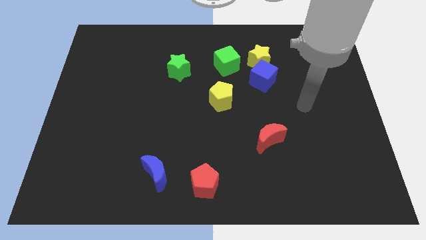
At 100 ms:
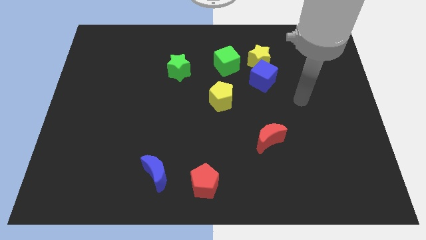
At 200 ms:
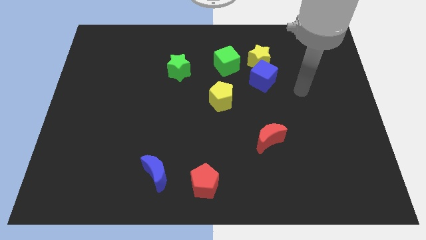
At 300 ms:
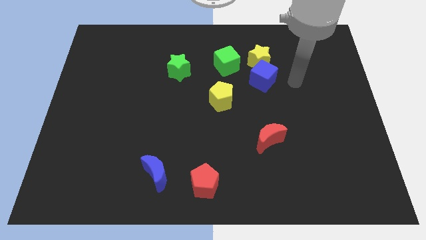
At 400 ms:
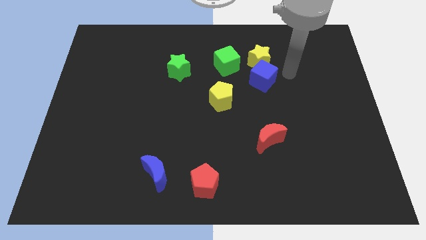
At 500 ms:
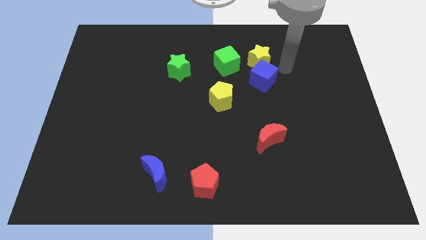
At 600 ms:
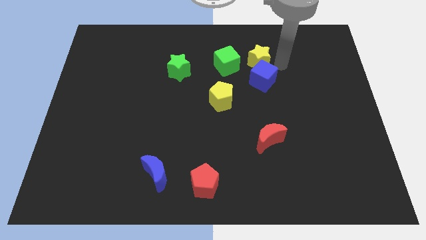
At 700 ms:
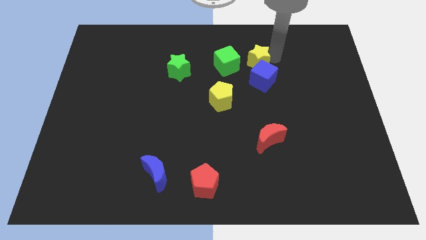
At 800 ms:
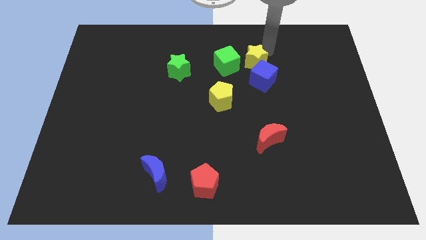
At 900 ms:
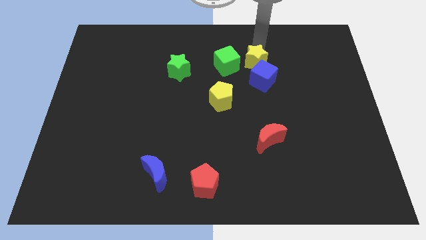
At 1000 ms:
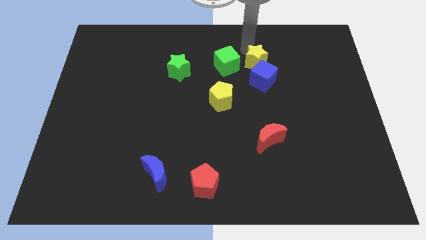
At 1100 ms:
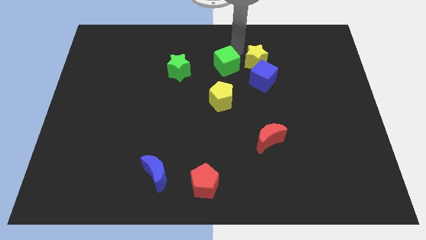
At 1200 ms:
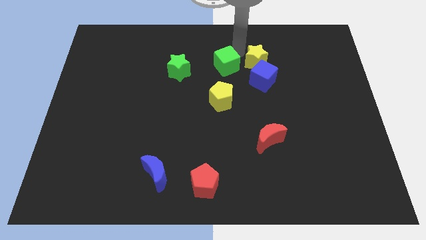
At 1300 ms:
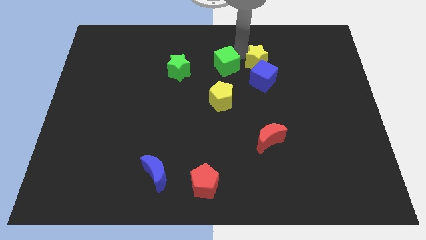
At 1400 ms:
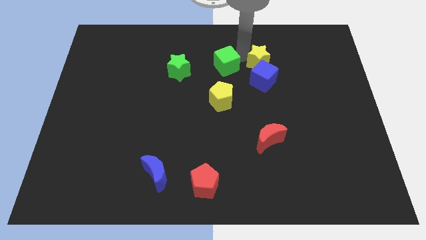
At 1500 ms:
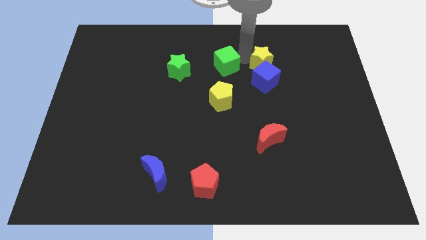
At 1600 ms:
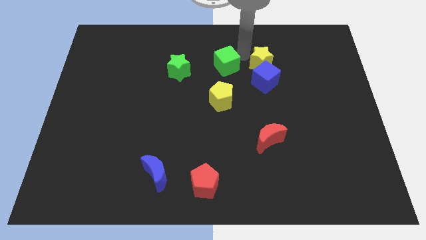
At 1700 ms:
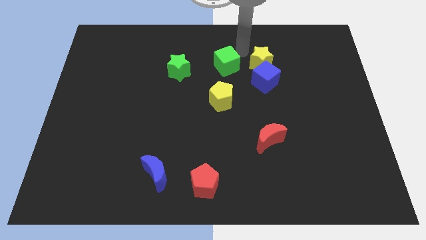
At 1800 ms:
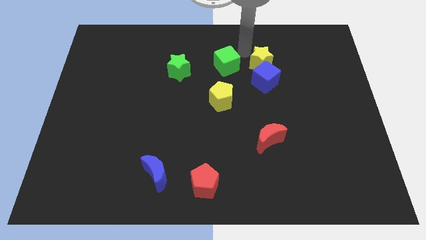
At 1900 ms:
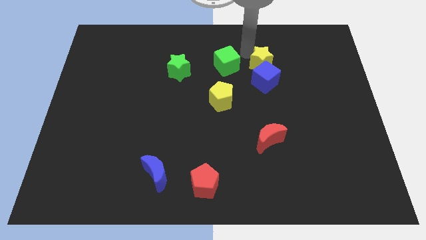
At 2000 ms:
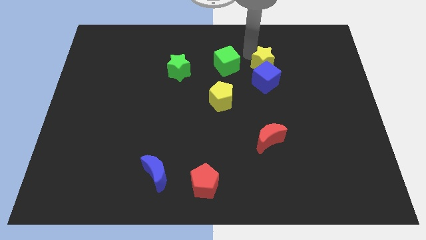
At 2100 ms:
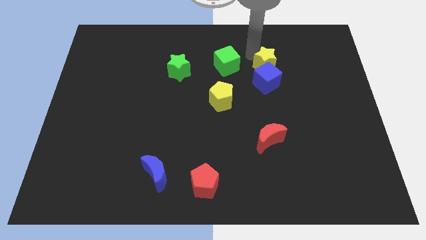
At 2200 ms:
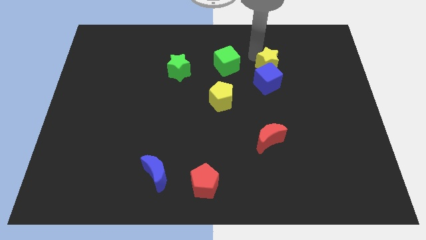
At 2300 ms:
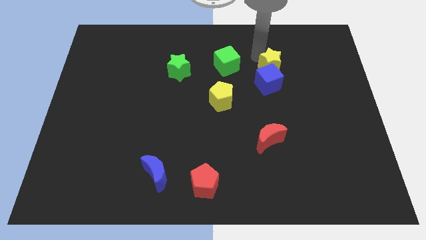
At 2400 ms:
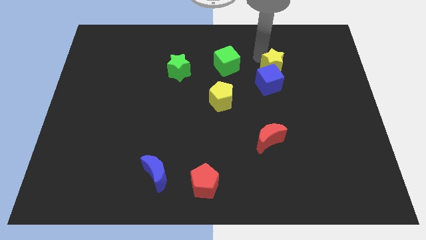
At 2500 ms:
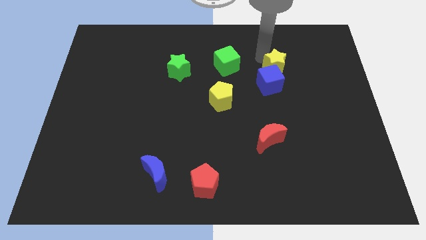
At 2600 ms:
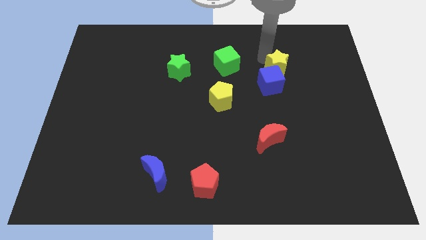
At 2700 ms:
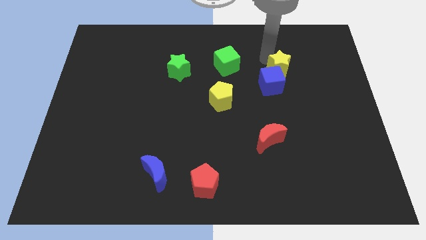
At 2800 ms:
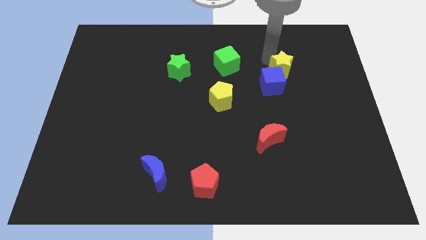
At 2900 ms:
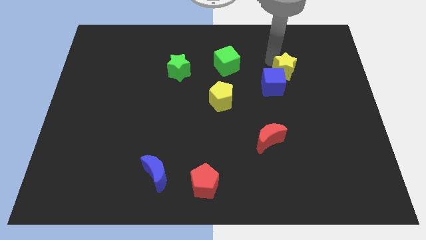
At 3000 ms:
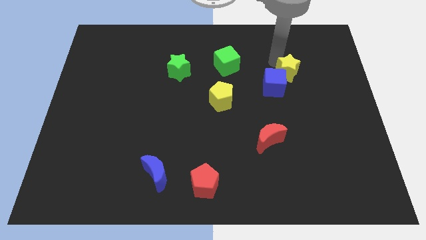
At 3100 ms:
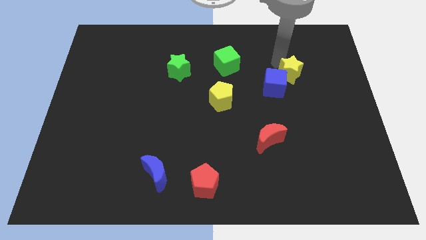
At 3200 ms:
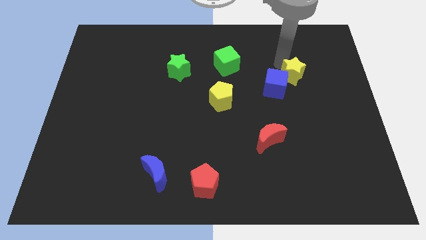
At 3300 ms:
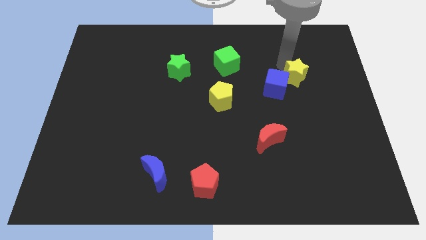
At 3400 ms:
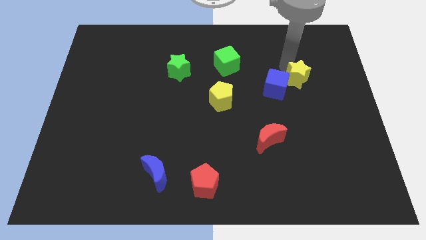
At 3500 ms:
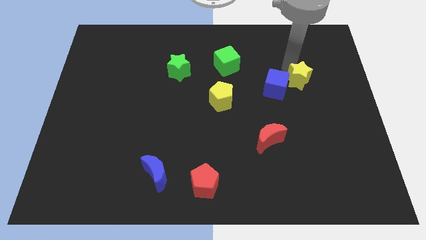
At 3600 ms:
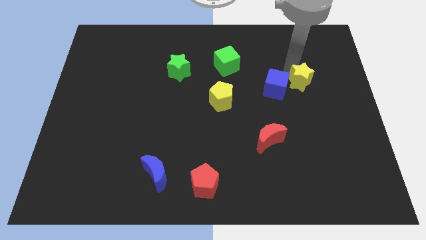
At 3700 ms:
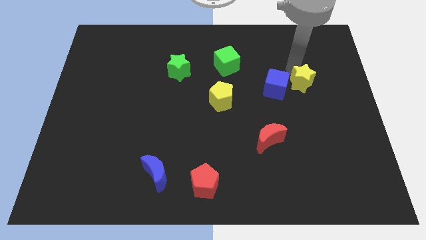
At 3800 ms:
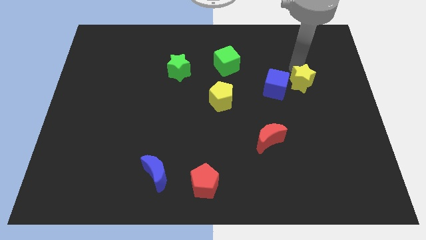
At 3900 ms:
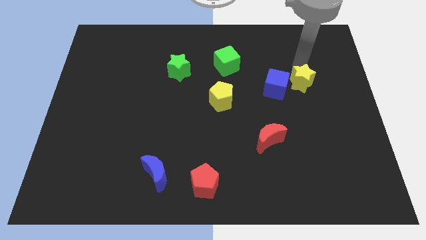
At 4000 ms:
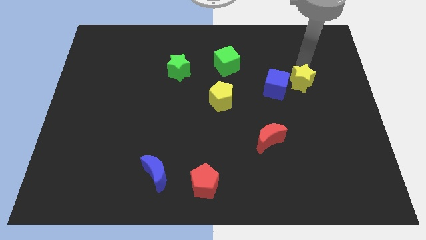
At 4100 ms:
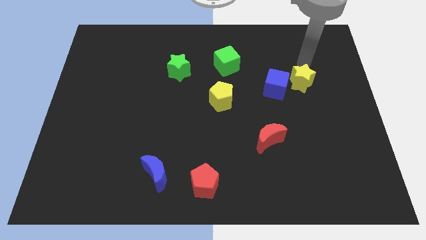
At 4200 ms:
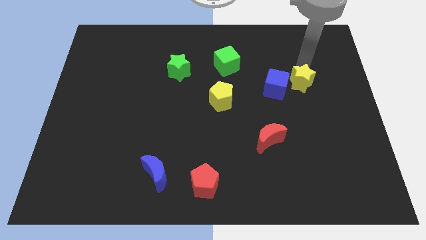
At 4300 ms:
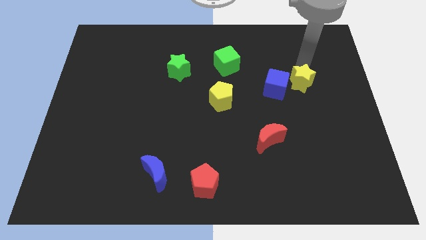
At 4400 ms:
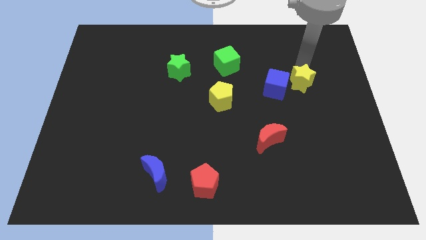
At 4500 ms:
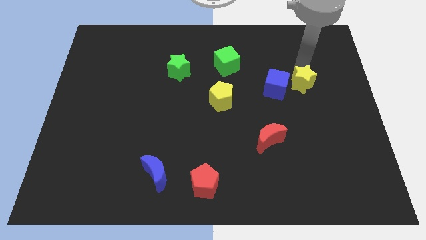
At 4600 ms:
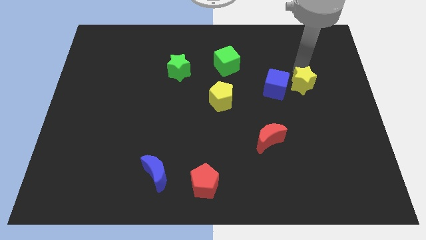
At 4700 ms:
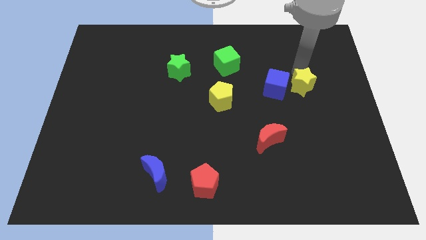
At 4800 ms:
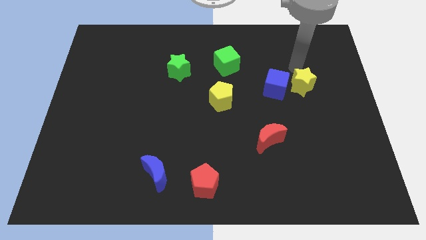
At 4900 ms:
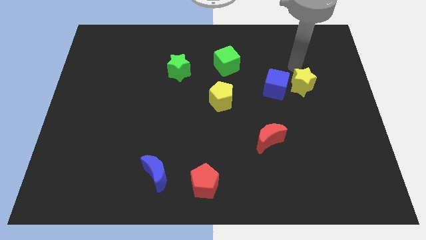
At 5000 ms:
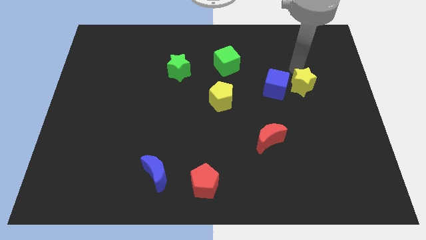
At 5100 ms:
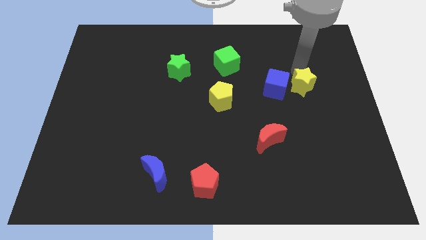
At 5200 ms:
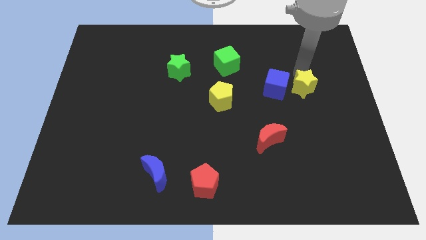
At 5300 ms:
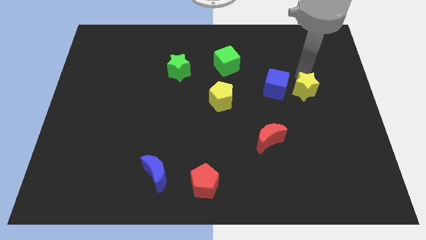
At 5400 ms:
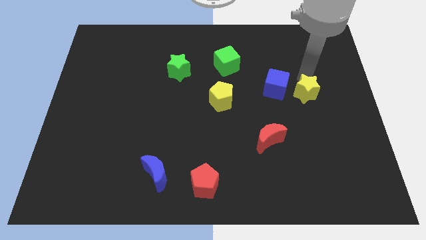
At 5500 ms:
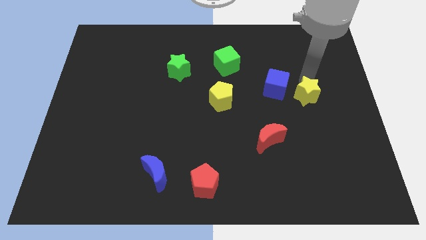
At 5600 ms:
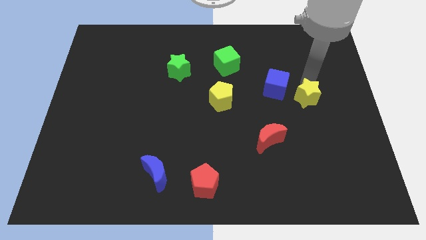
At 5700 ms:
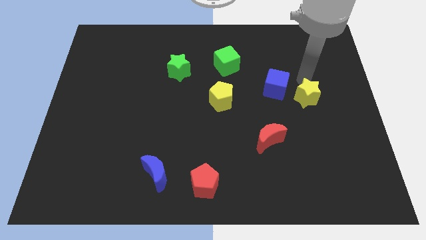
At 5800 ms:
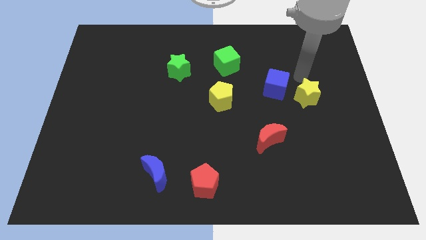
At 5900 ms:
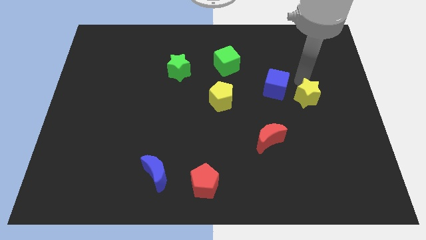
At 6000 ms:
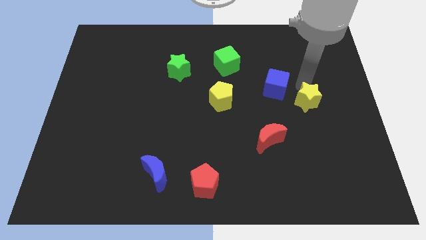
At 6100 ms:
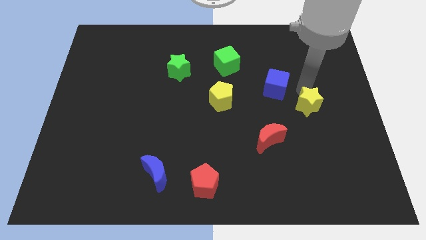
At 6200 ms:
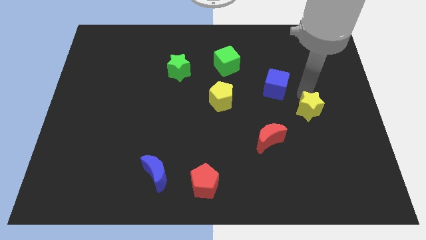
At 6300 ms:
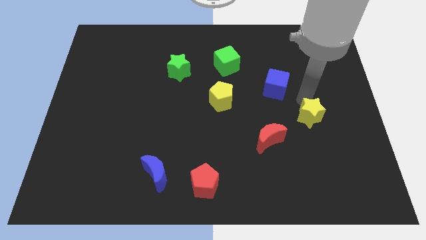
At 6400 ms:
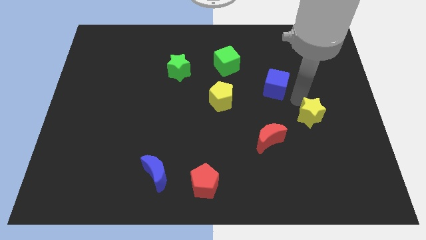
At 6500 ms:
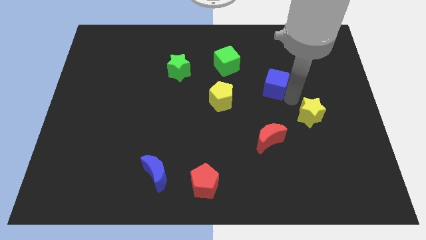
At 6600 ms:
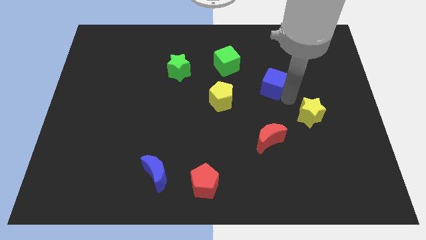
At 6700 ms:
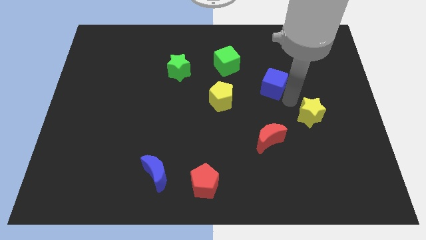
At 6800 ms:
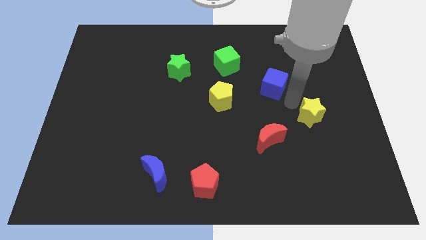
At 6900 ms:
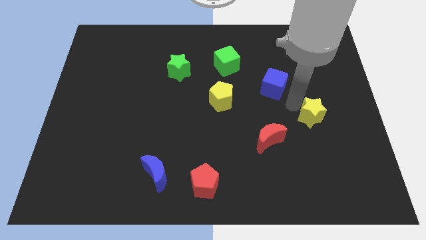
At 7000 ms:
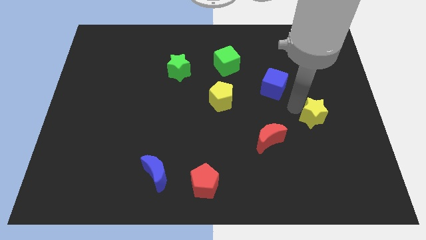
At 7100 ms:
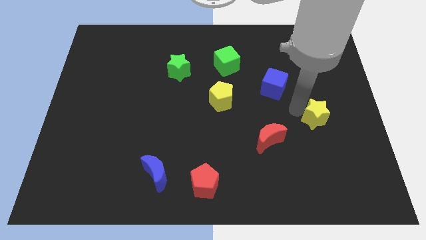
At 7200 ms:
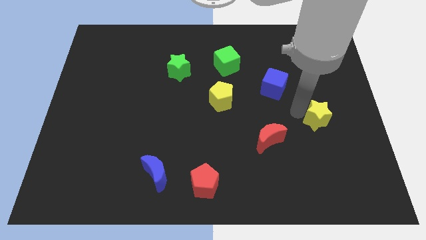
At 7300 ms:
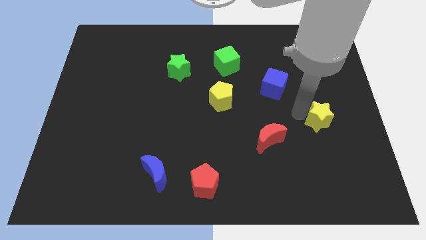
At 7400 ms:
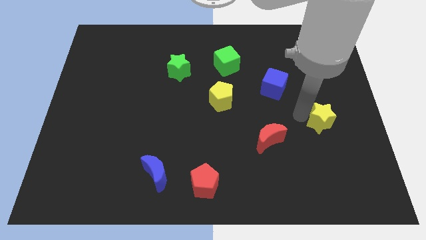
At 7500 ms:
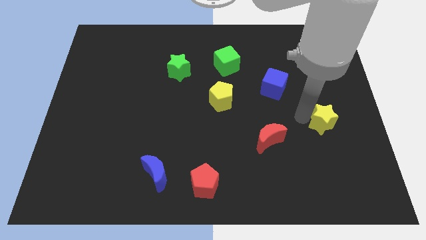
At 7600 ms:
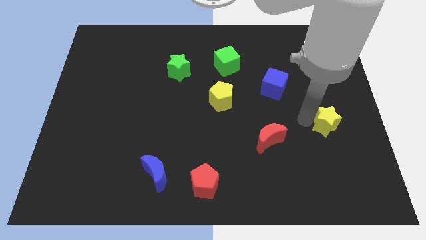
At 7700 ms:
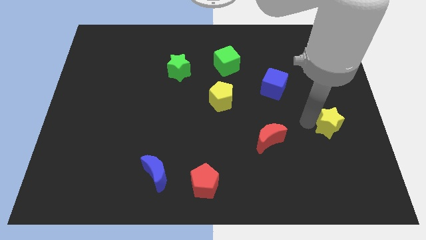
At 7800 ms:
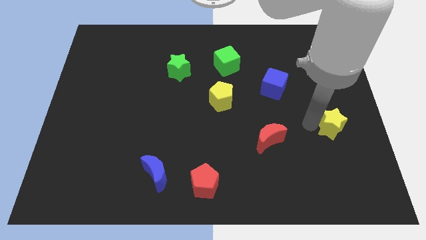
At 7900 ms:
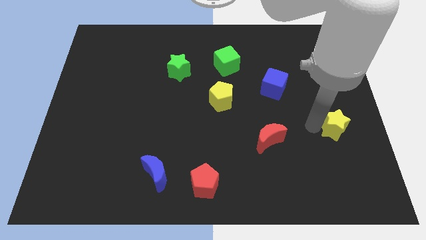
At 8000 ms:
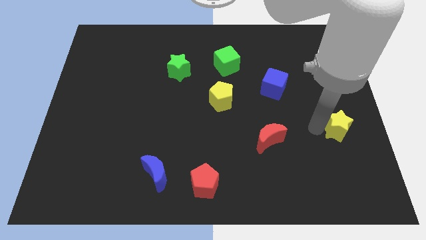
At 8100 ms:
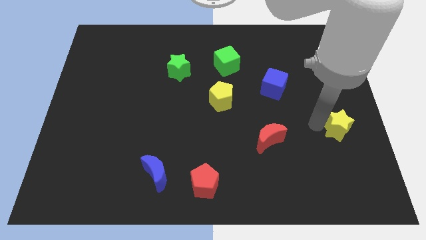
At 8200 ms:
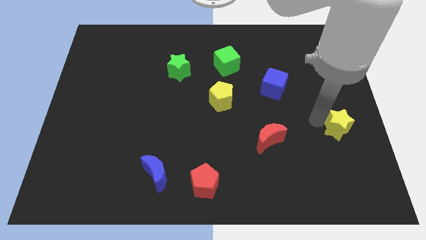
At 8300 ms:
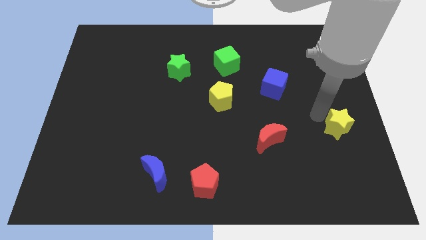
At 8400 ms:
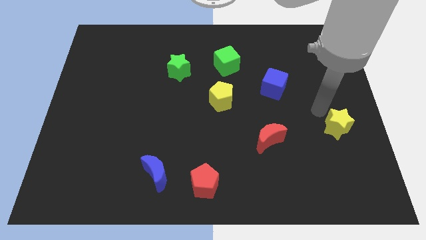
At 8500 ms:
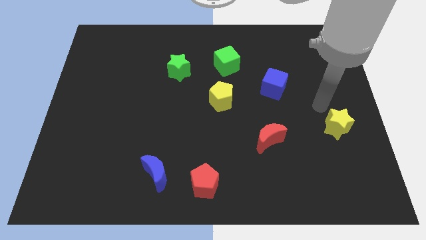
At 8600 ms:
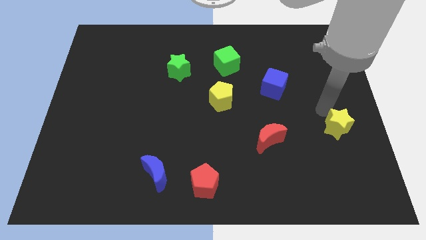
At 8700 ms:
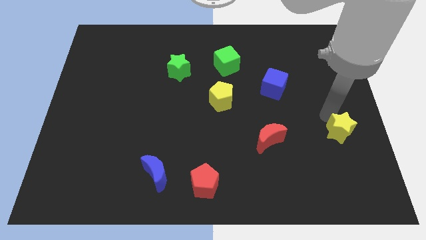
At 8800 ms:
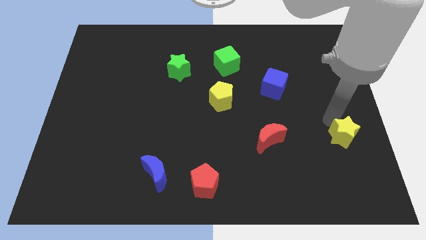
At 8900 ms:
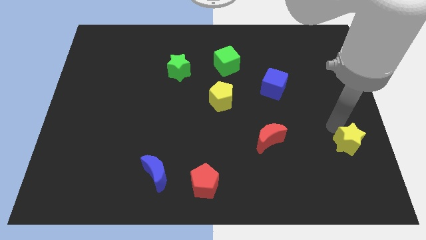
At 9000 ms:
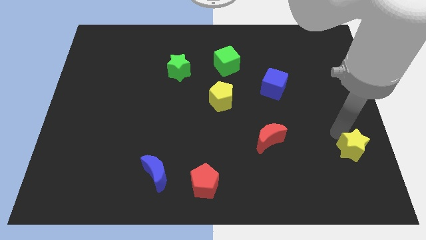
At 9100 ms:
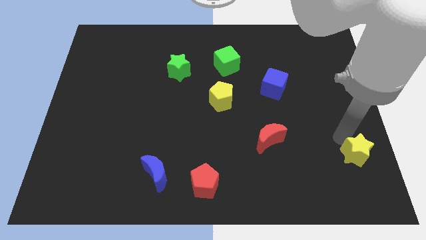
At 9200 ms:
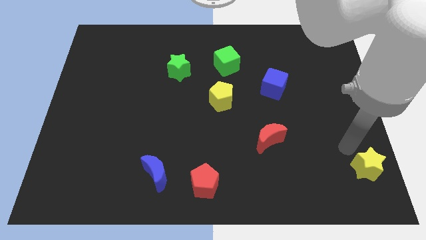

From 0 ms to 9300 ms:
push the yellow star to the bottom right
